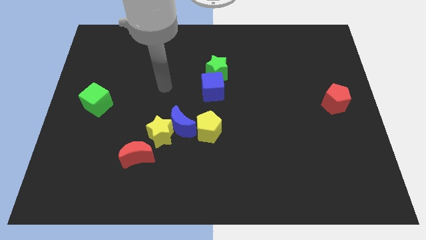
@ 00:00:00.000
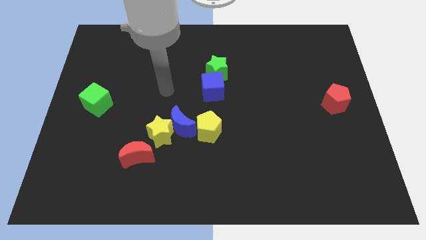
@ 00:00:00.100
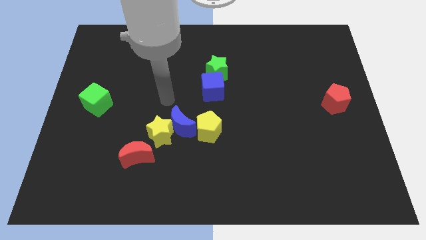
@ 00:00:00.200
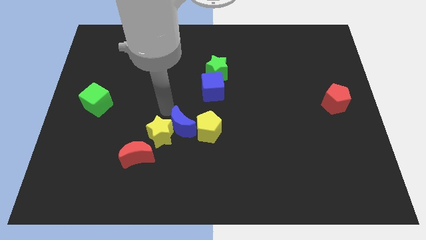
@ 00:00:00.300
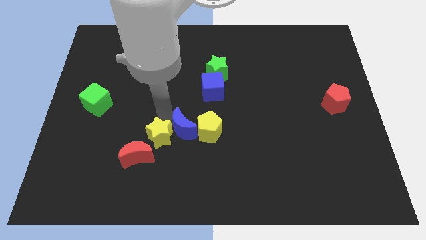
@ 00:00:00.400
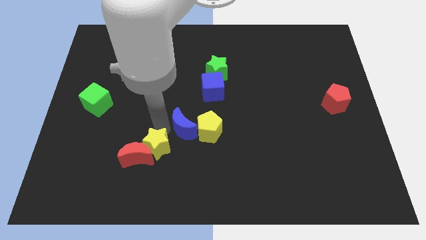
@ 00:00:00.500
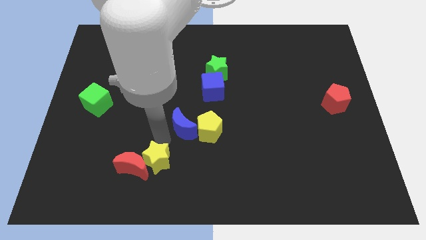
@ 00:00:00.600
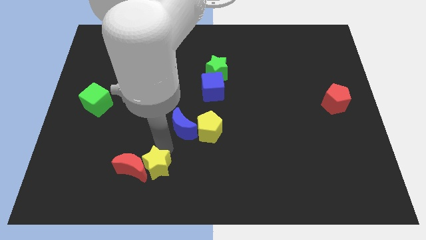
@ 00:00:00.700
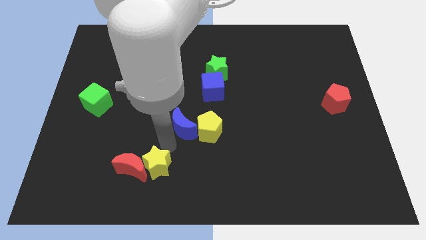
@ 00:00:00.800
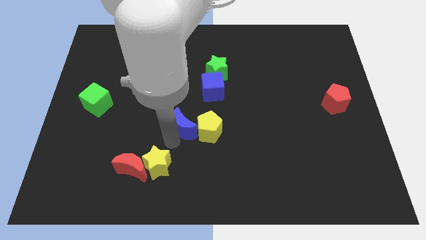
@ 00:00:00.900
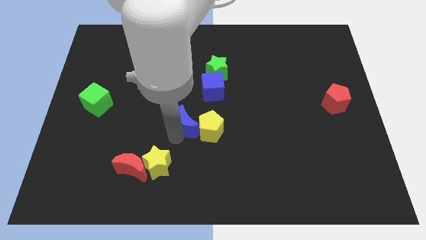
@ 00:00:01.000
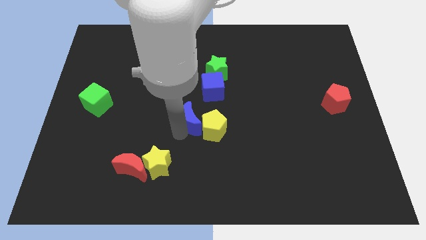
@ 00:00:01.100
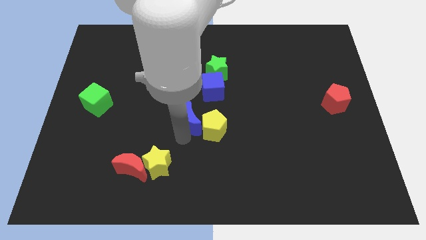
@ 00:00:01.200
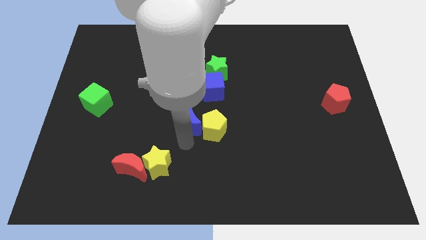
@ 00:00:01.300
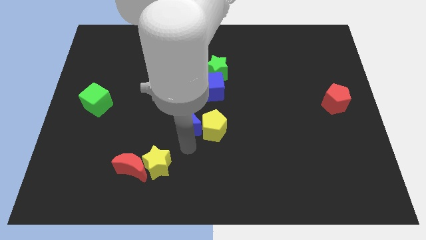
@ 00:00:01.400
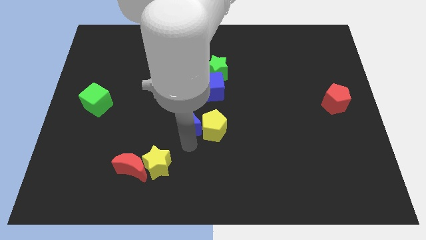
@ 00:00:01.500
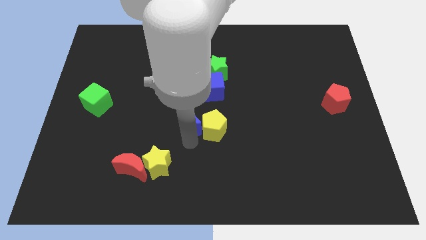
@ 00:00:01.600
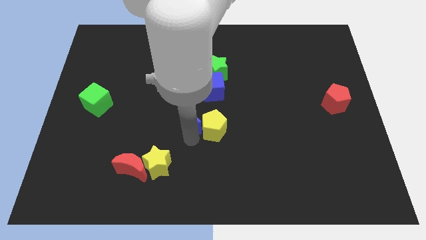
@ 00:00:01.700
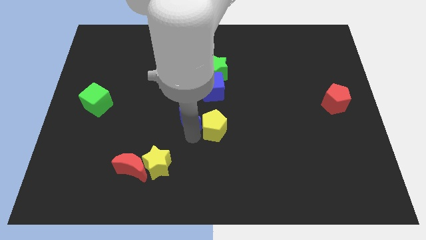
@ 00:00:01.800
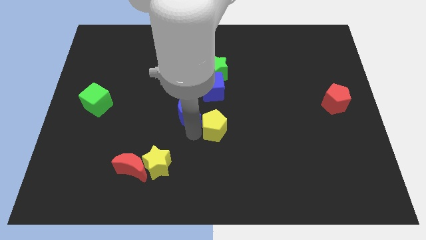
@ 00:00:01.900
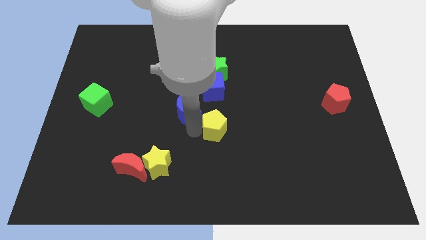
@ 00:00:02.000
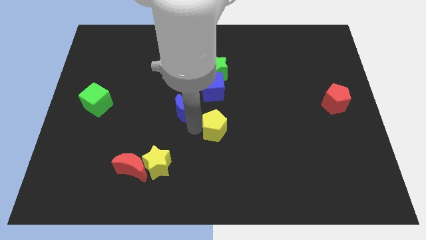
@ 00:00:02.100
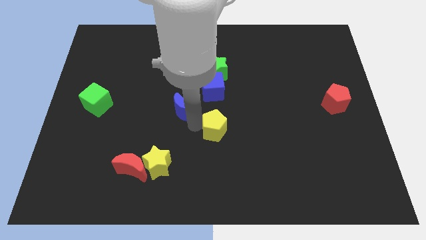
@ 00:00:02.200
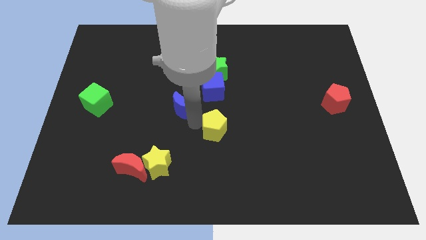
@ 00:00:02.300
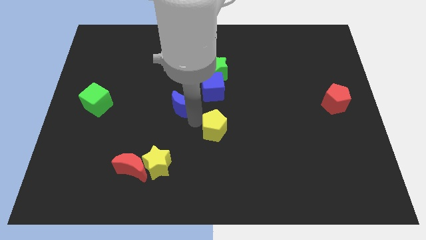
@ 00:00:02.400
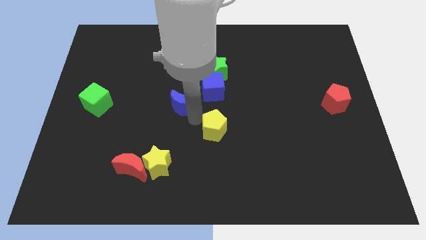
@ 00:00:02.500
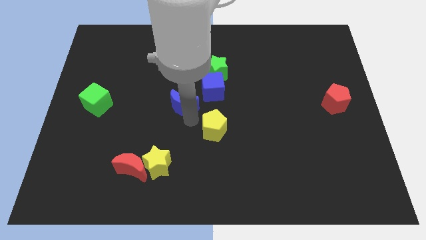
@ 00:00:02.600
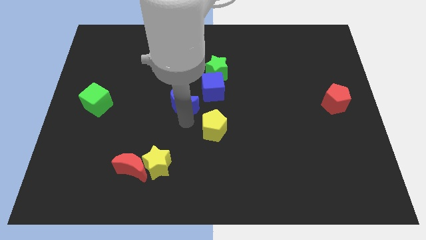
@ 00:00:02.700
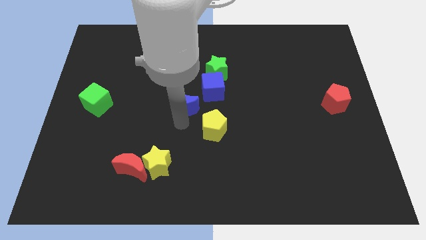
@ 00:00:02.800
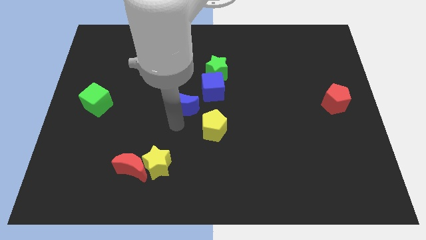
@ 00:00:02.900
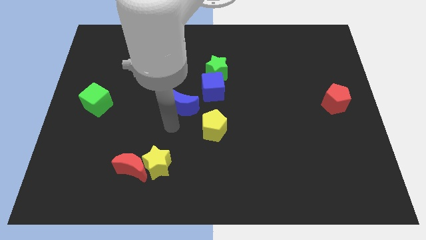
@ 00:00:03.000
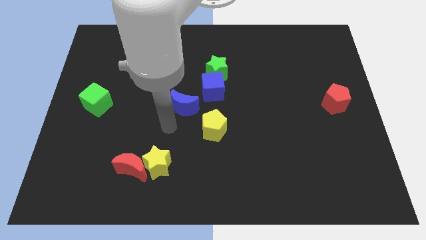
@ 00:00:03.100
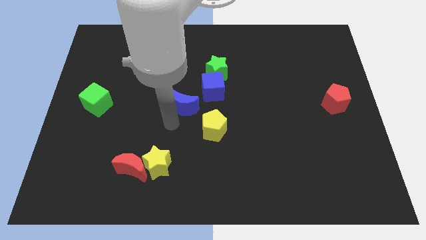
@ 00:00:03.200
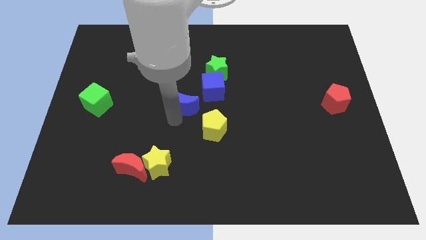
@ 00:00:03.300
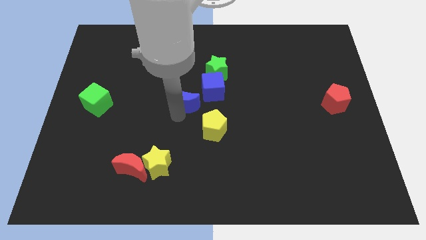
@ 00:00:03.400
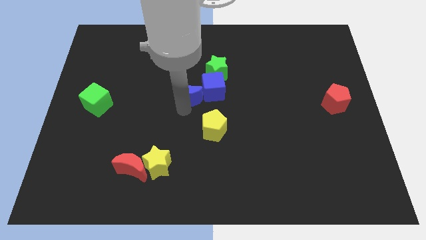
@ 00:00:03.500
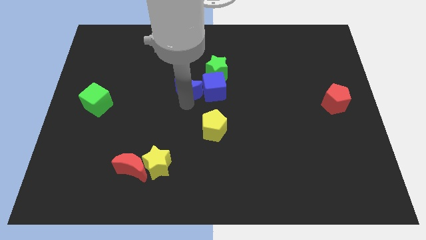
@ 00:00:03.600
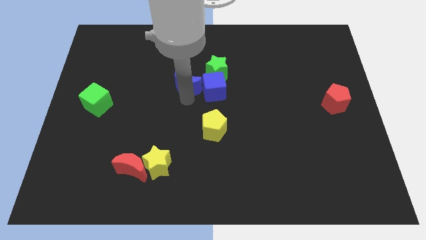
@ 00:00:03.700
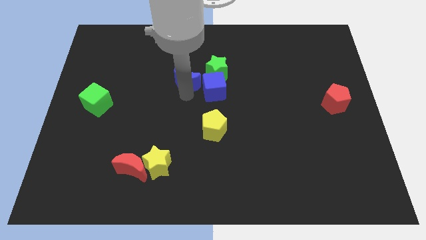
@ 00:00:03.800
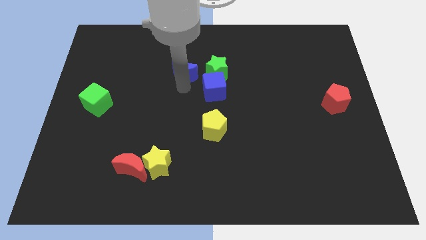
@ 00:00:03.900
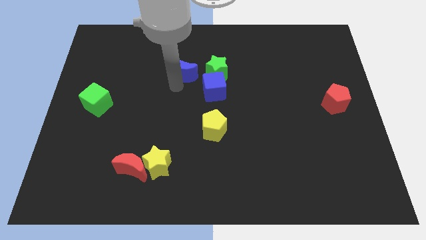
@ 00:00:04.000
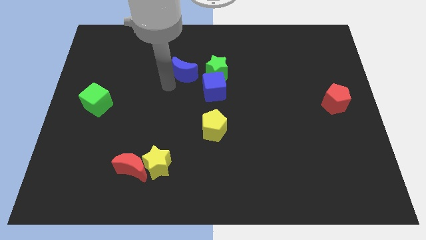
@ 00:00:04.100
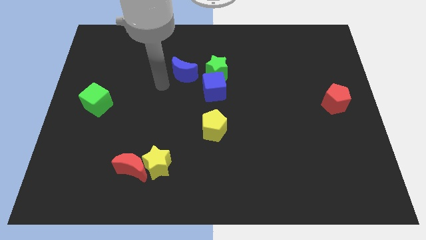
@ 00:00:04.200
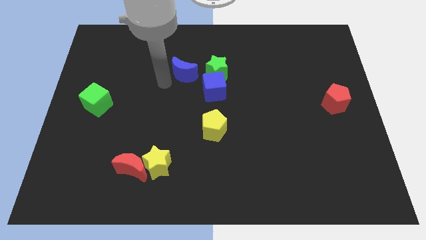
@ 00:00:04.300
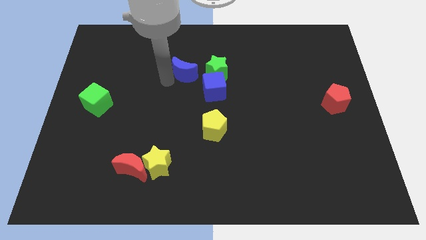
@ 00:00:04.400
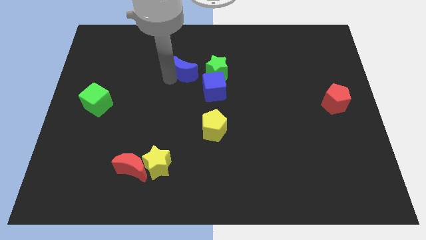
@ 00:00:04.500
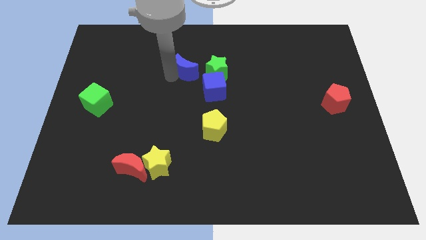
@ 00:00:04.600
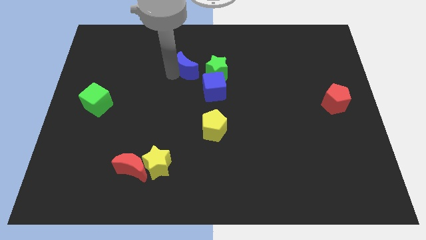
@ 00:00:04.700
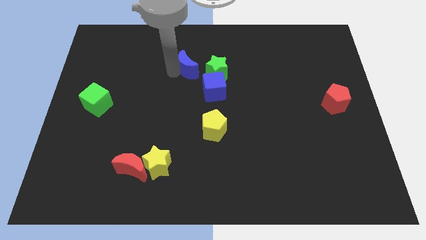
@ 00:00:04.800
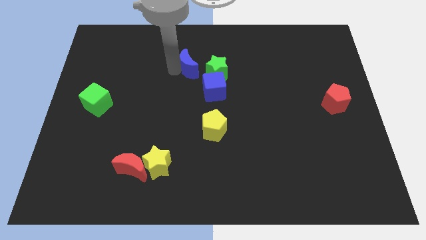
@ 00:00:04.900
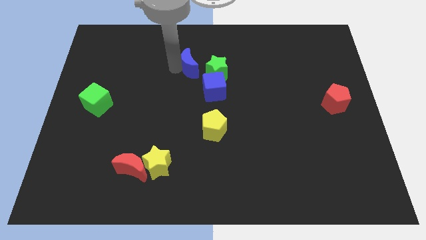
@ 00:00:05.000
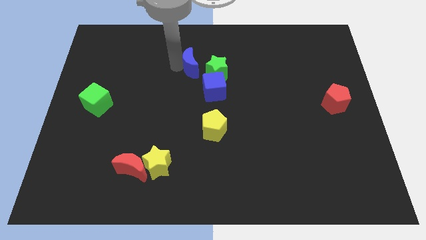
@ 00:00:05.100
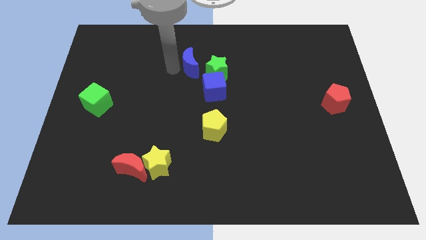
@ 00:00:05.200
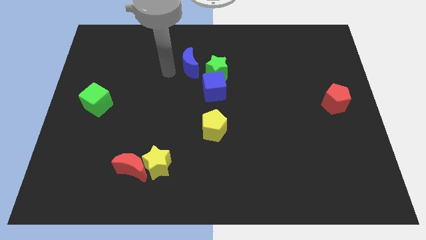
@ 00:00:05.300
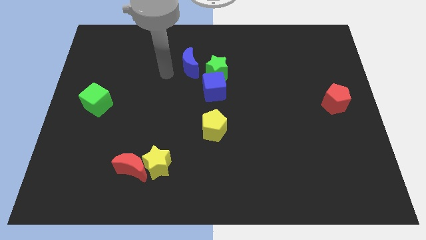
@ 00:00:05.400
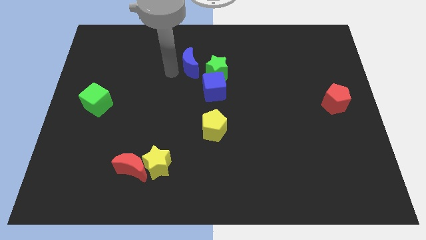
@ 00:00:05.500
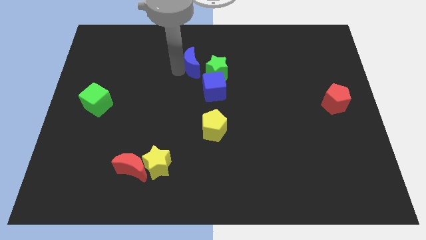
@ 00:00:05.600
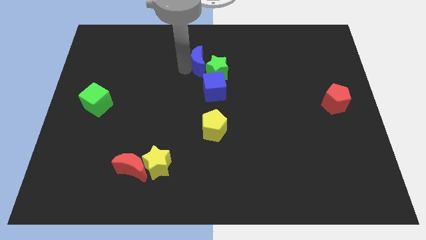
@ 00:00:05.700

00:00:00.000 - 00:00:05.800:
move the blue moon to the top of the blue cube

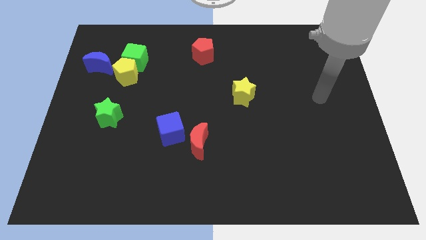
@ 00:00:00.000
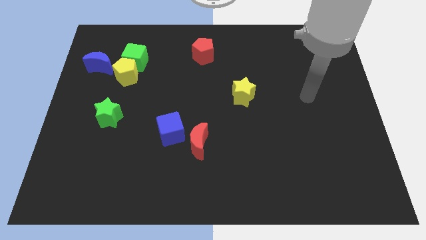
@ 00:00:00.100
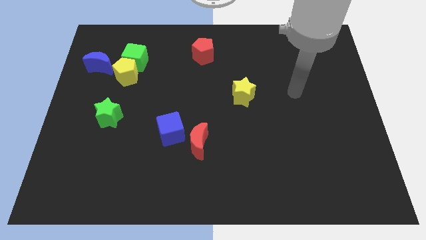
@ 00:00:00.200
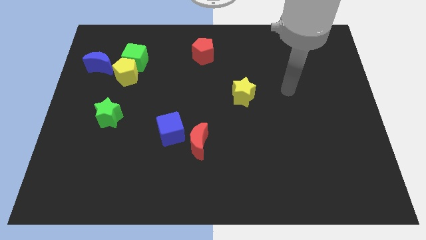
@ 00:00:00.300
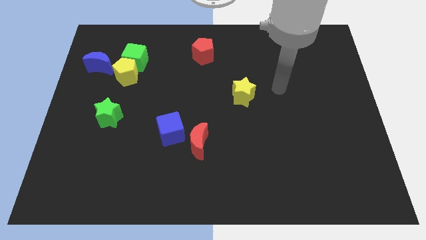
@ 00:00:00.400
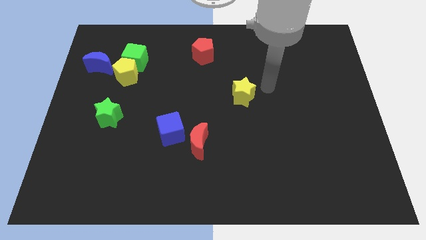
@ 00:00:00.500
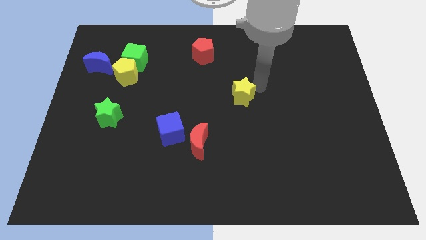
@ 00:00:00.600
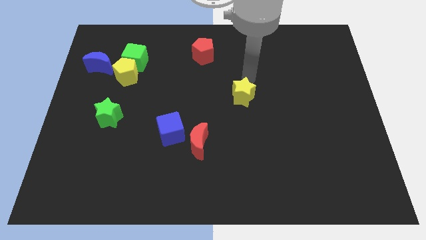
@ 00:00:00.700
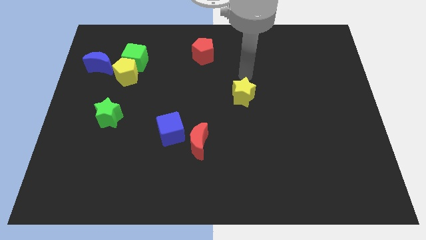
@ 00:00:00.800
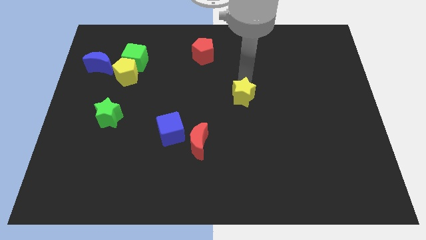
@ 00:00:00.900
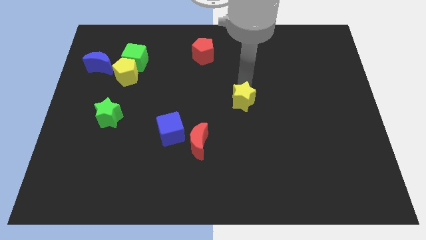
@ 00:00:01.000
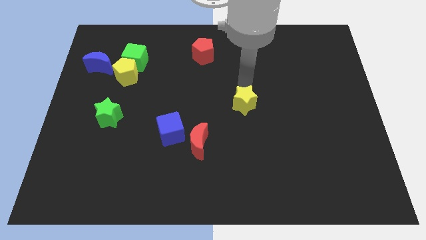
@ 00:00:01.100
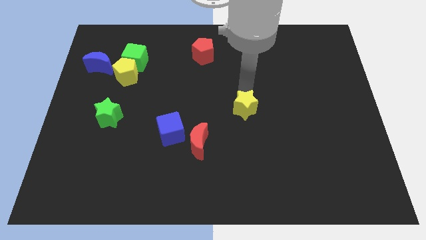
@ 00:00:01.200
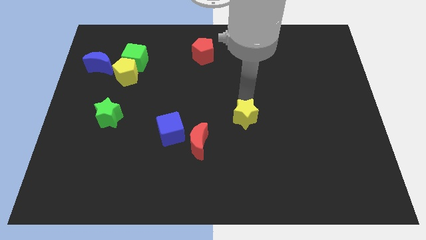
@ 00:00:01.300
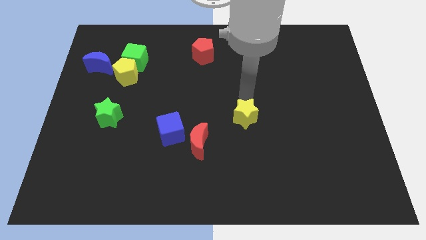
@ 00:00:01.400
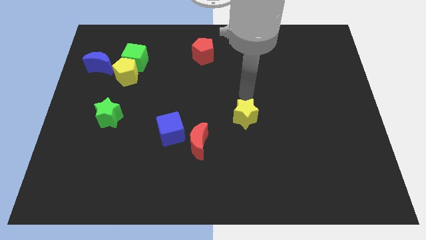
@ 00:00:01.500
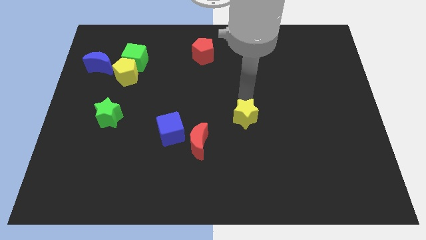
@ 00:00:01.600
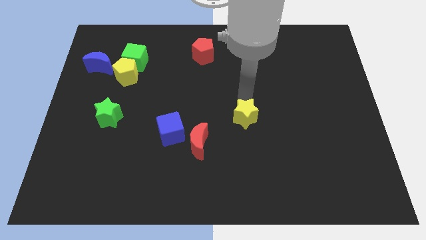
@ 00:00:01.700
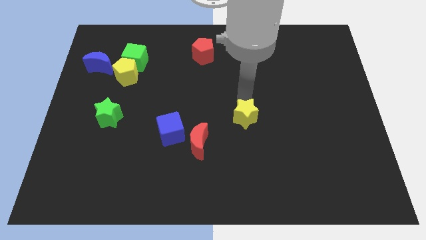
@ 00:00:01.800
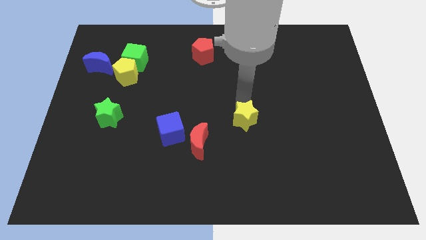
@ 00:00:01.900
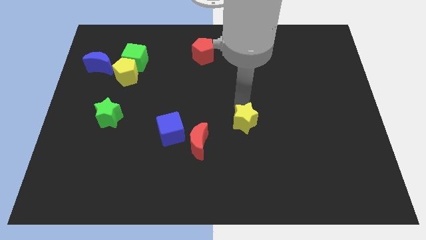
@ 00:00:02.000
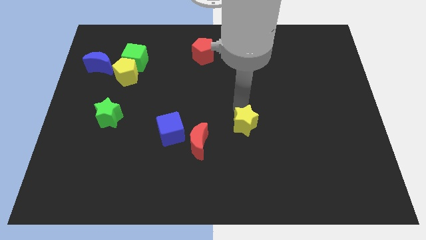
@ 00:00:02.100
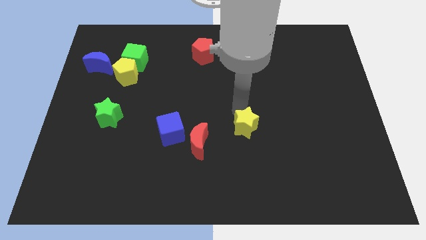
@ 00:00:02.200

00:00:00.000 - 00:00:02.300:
move the yellow star just right of the red moon

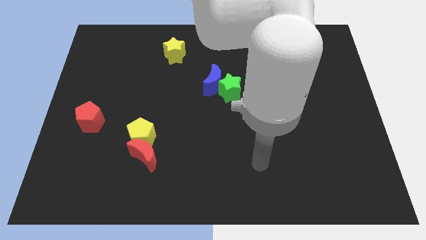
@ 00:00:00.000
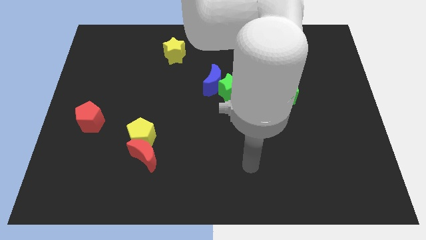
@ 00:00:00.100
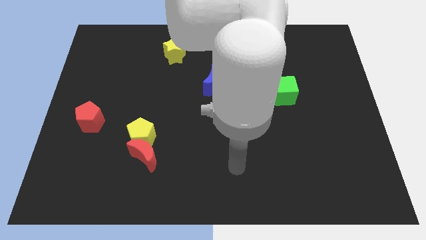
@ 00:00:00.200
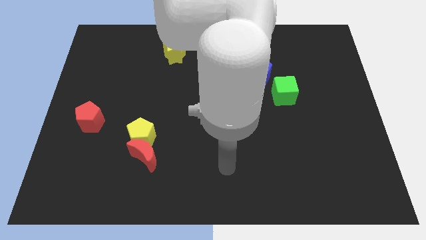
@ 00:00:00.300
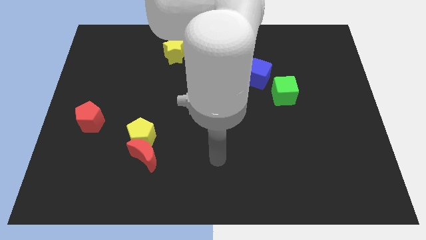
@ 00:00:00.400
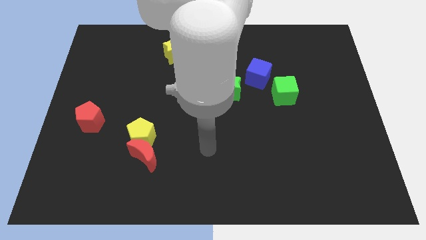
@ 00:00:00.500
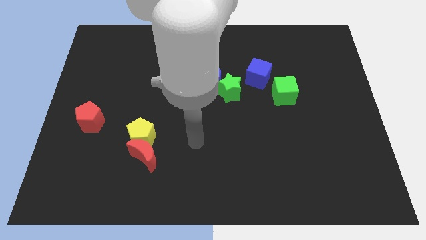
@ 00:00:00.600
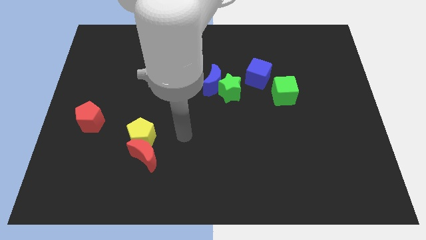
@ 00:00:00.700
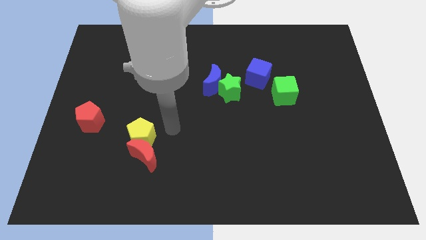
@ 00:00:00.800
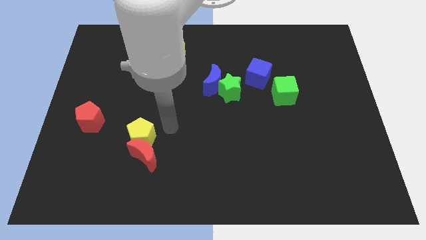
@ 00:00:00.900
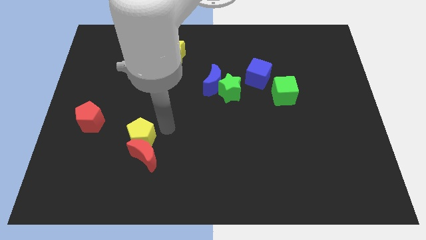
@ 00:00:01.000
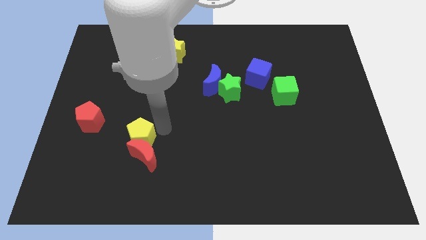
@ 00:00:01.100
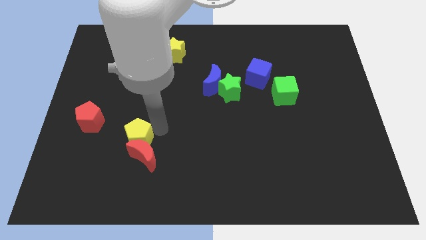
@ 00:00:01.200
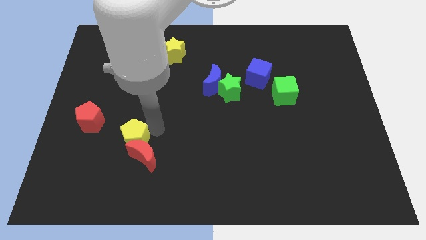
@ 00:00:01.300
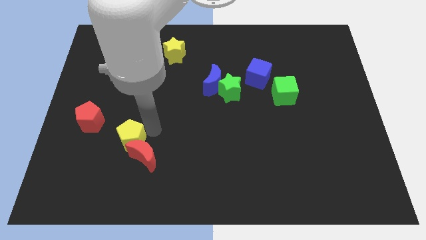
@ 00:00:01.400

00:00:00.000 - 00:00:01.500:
slide the yellow pentagon to the left of the red moon
